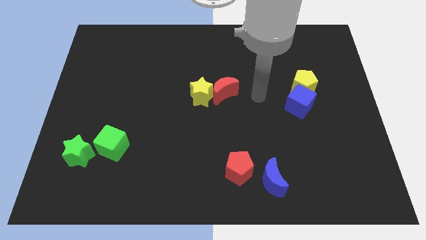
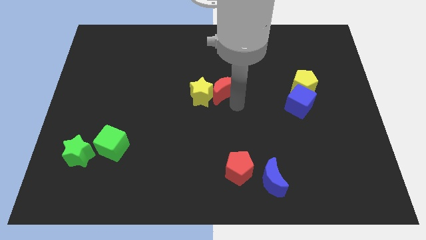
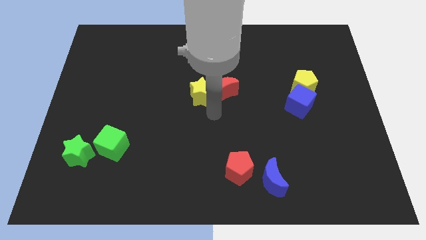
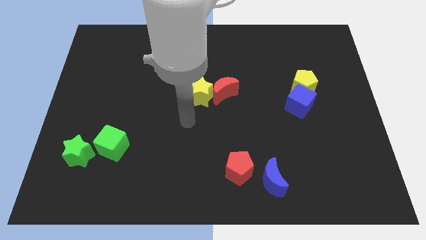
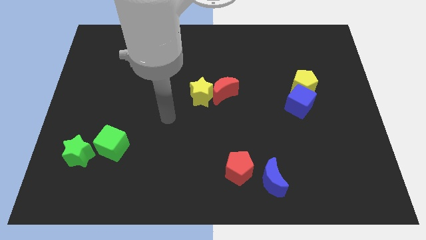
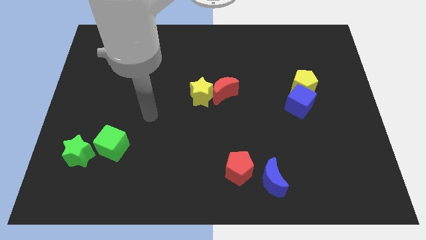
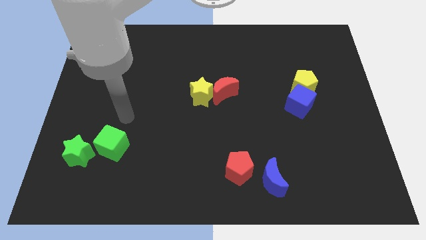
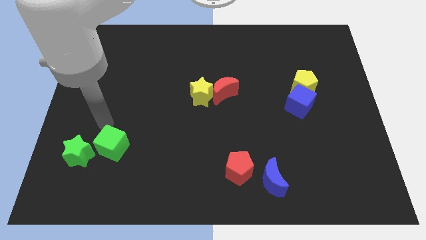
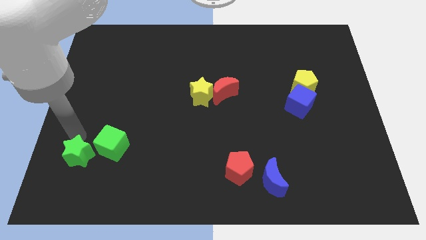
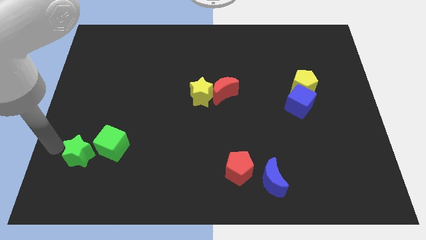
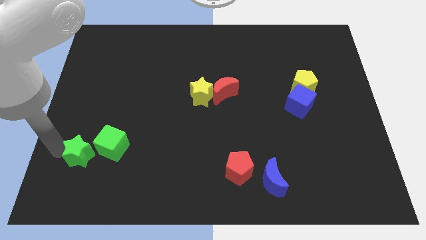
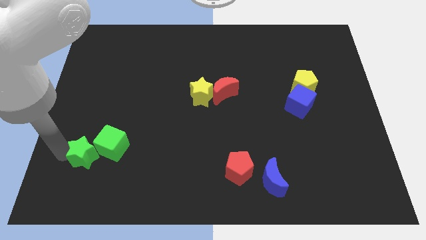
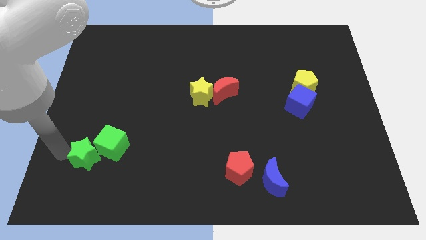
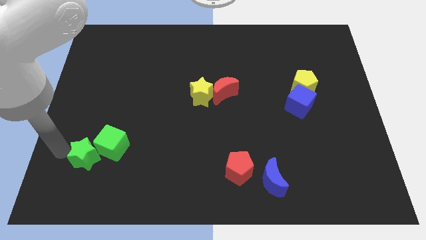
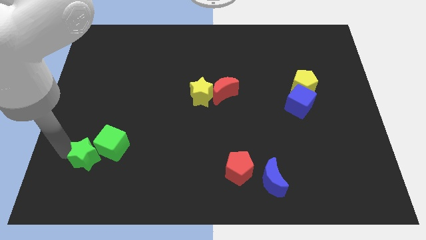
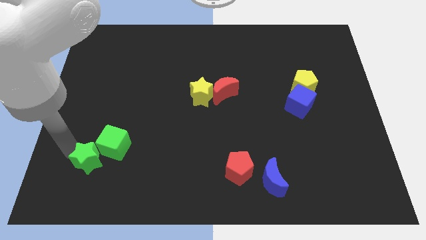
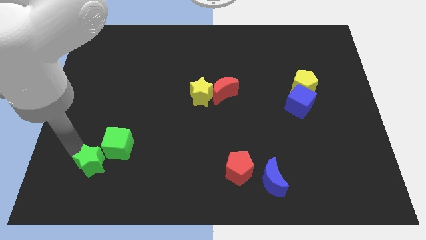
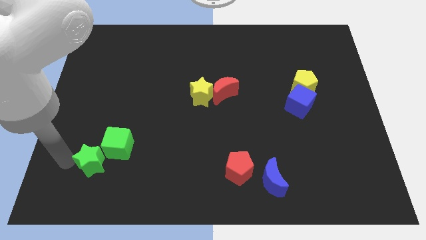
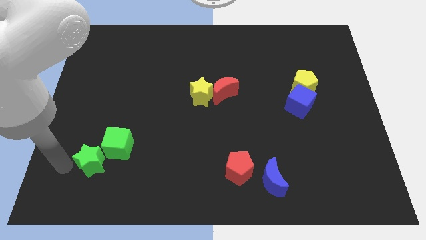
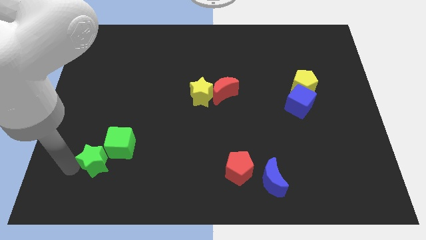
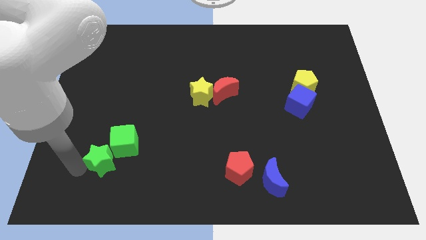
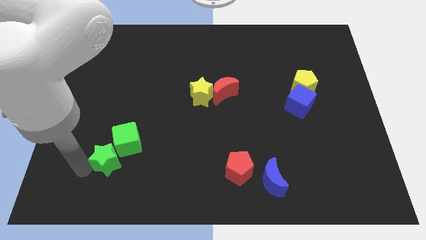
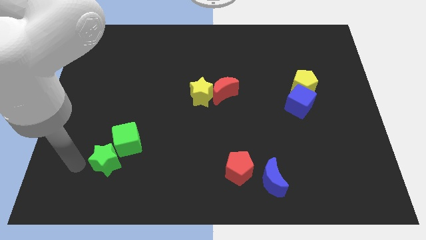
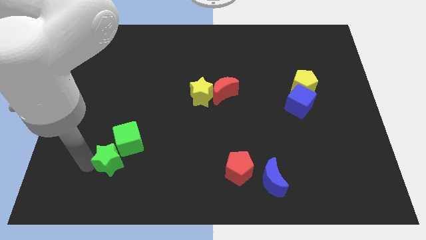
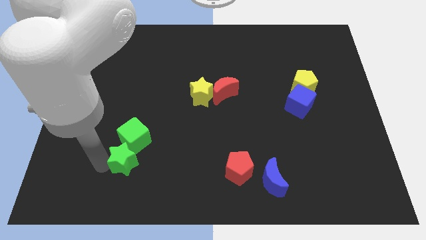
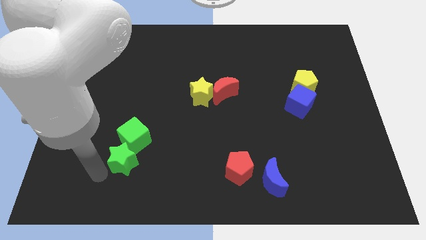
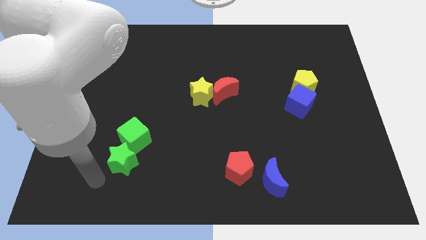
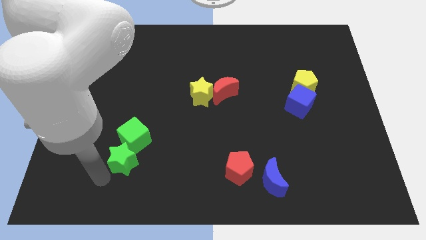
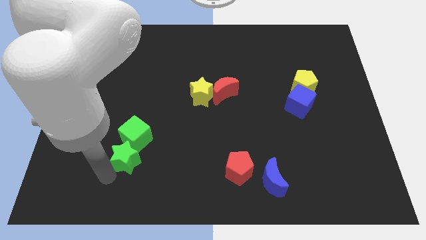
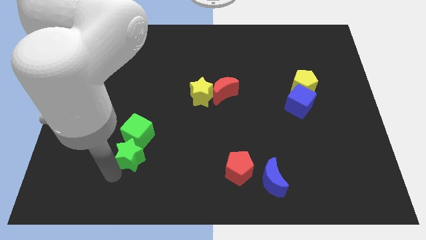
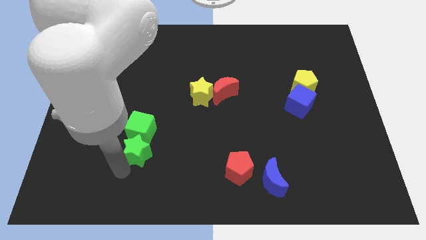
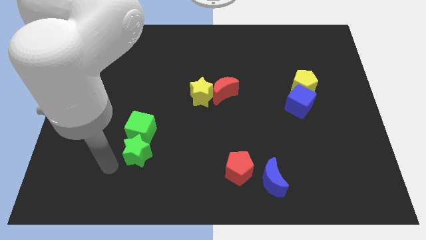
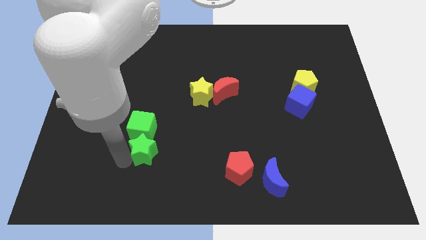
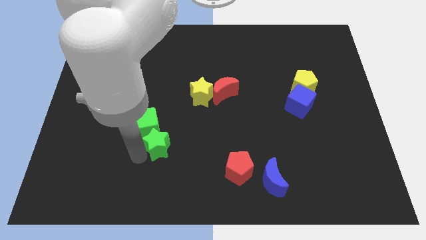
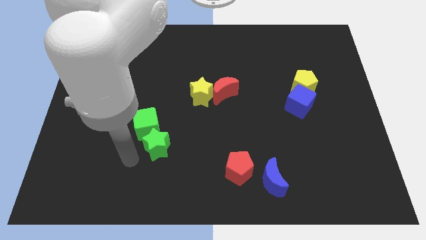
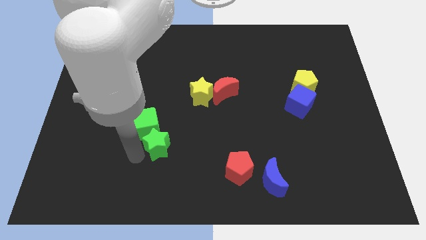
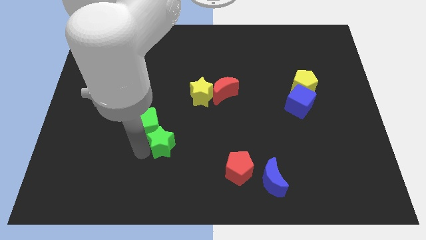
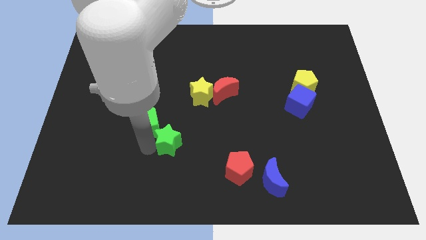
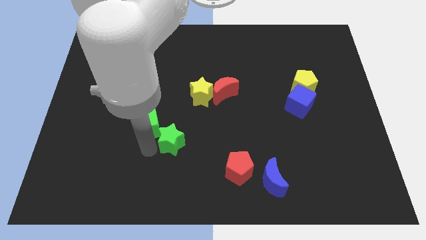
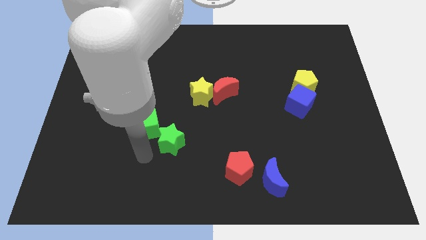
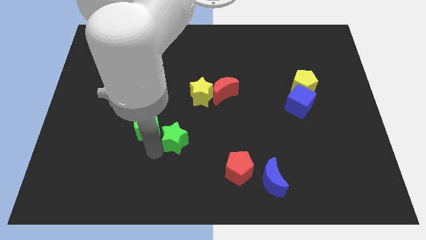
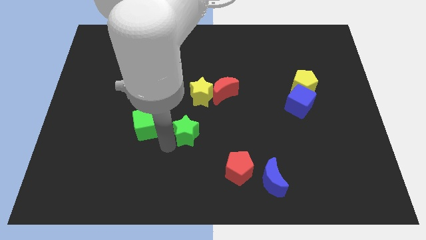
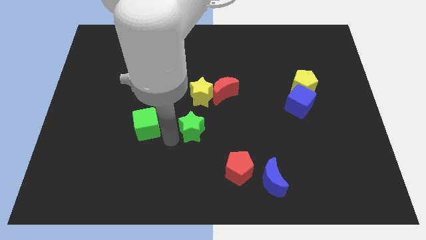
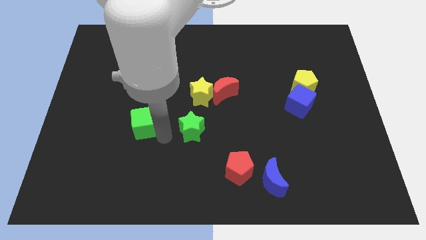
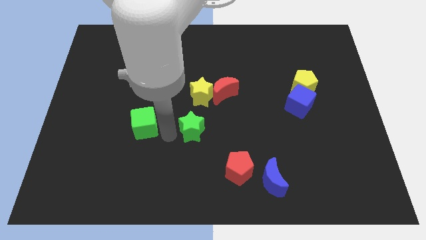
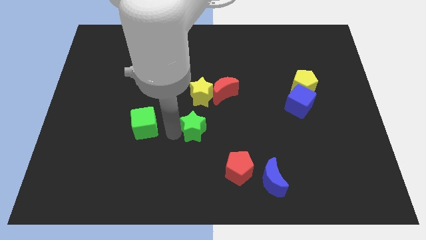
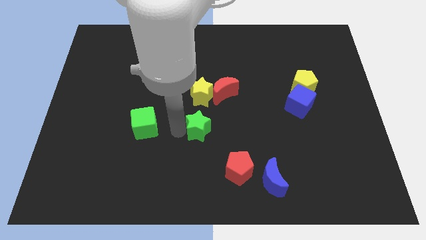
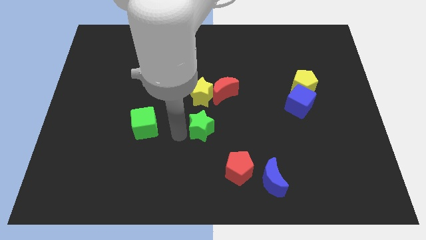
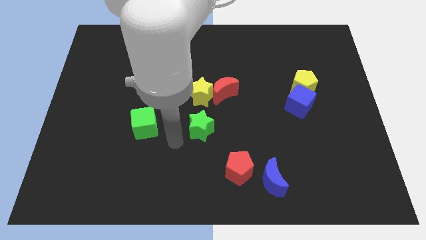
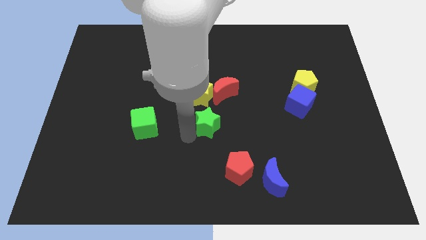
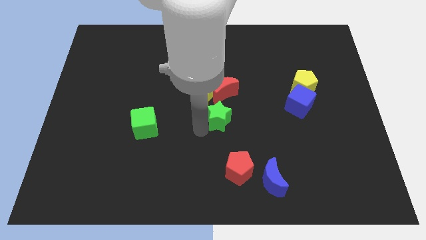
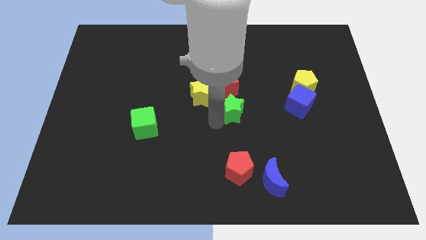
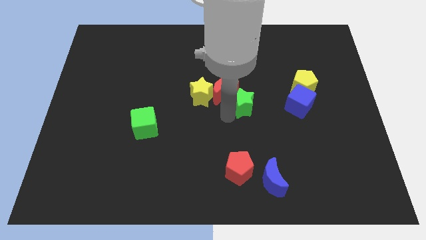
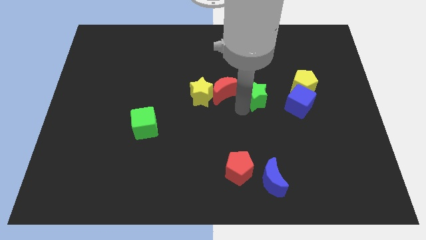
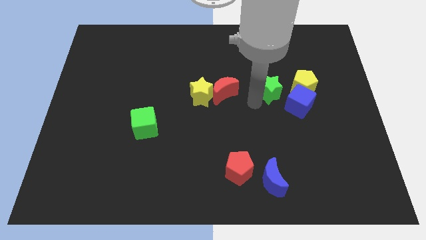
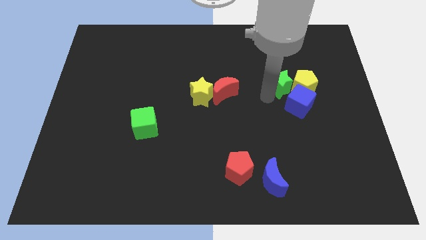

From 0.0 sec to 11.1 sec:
push the green star diagonally up and to the left of the yellow pentagon

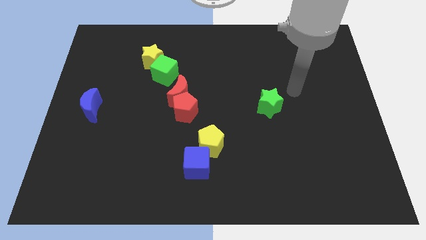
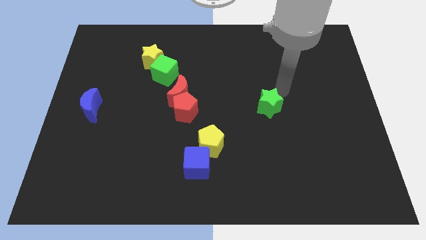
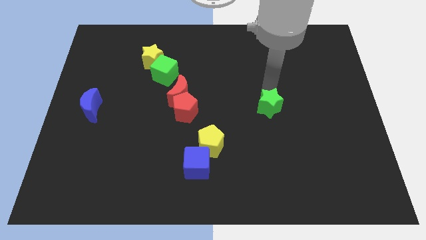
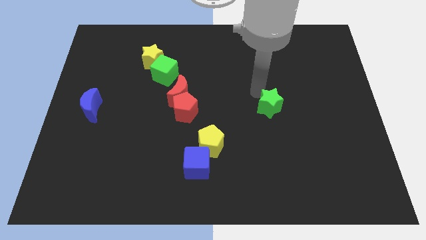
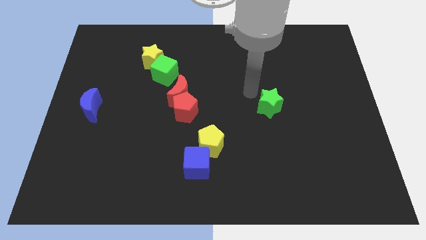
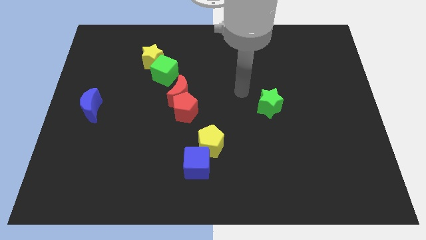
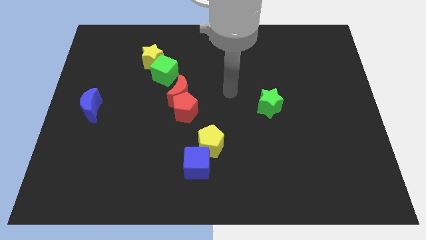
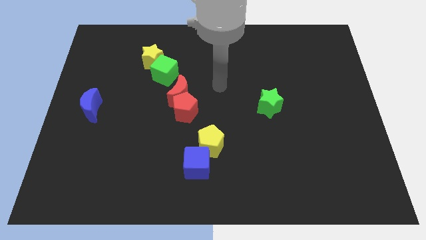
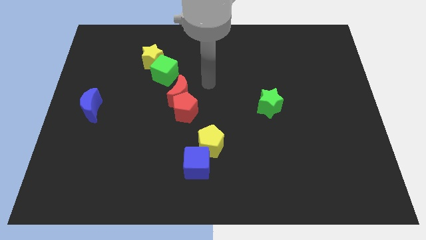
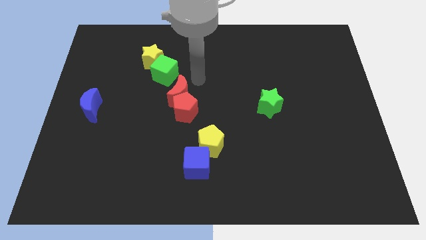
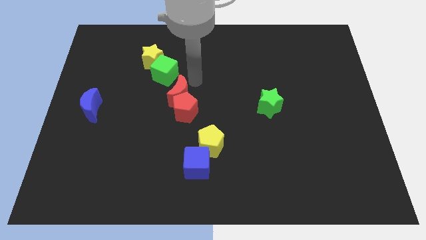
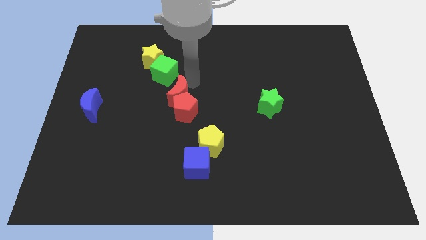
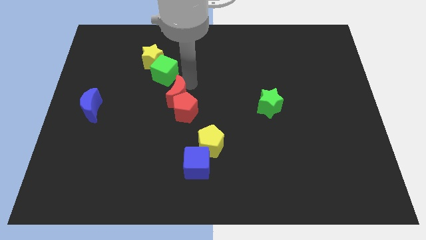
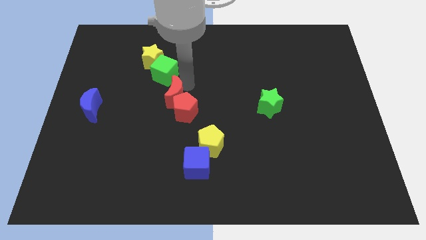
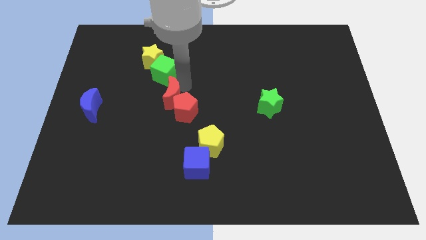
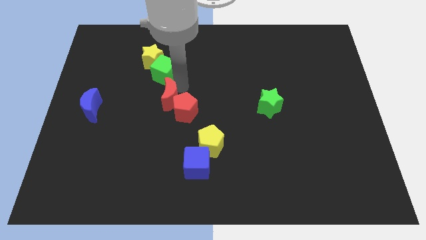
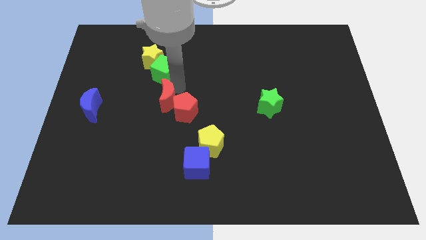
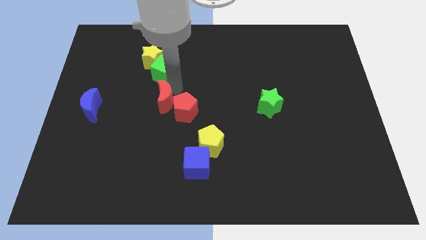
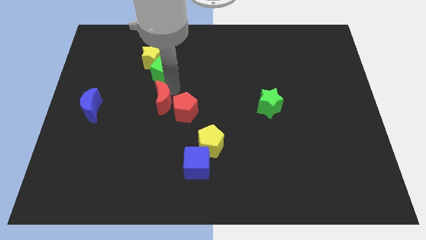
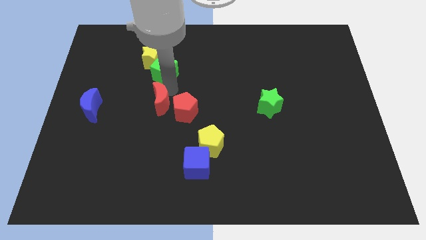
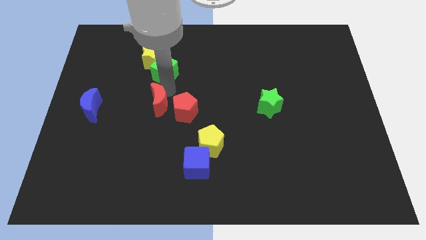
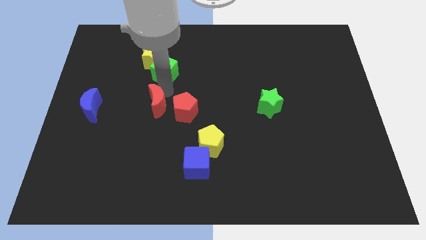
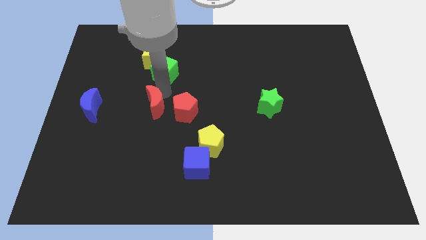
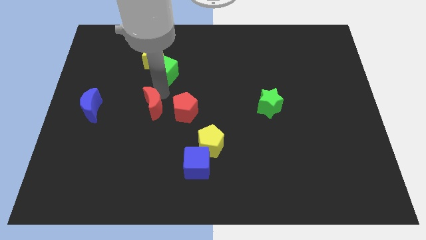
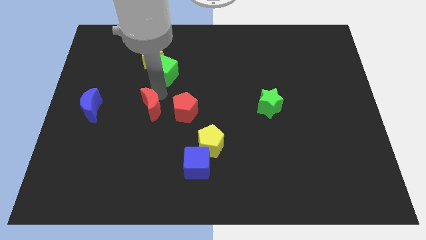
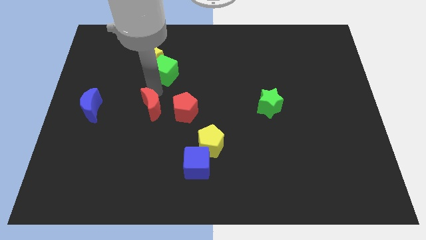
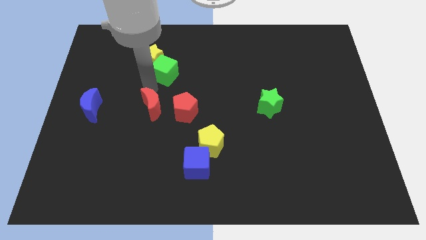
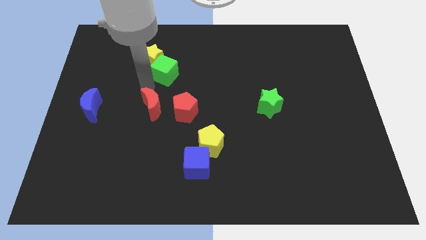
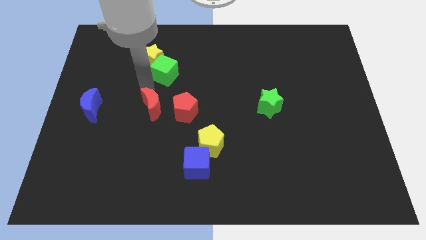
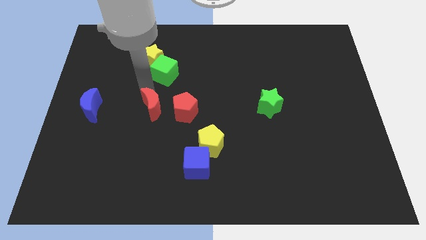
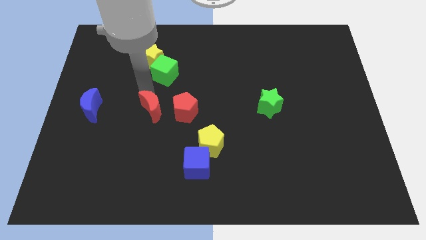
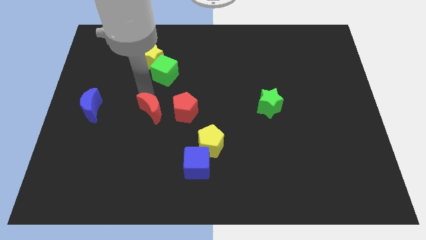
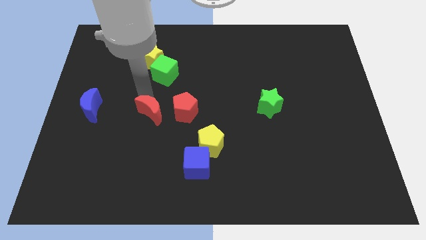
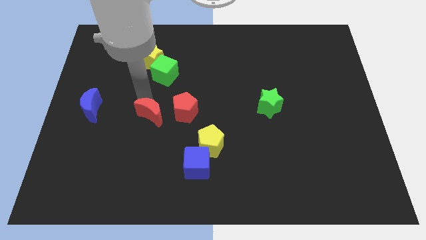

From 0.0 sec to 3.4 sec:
put the red moon diagonally down and to the left of the red pentagon
